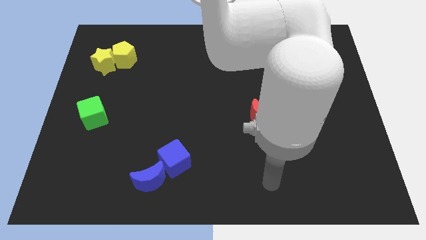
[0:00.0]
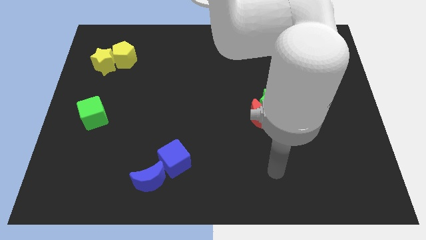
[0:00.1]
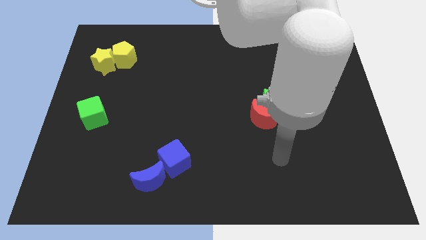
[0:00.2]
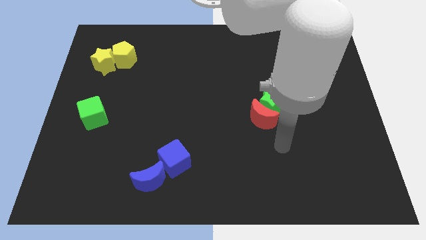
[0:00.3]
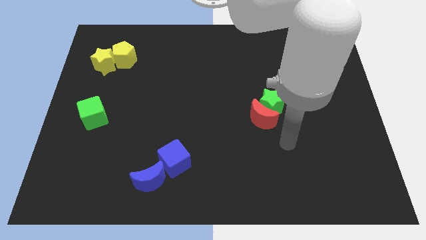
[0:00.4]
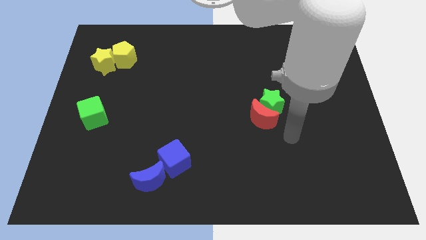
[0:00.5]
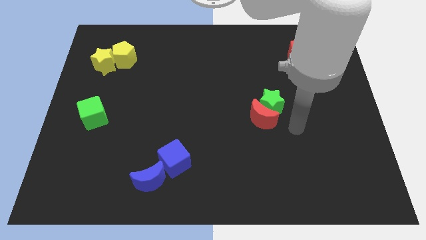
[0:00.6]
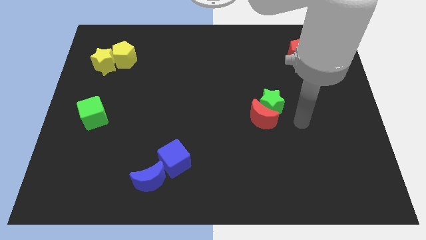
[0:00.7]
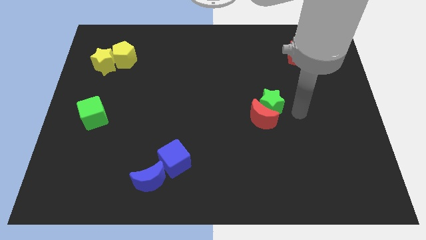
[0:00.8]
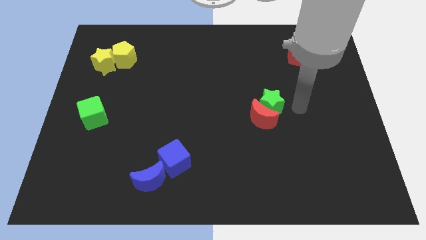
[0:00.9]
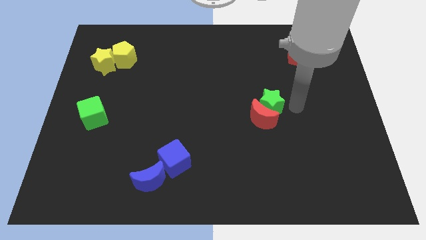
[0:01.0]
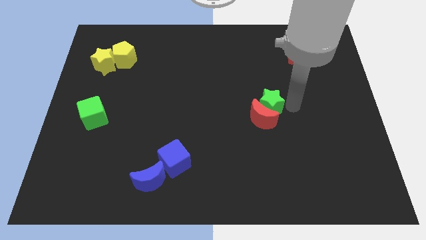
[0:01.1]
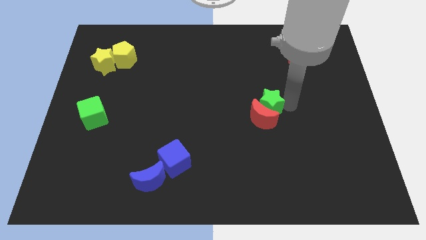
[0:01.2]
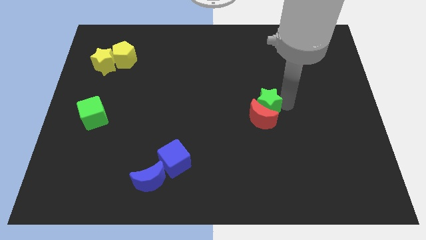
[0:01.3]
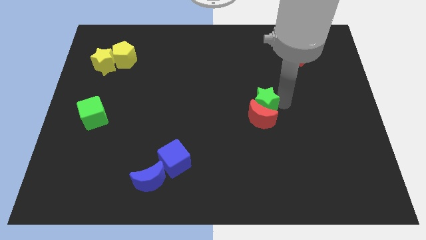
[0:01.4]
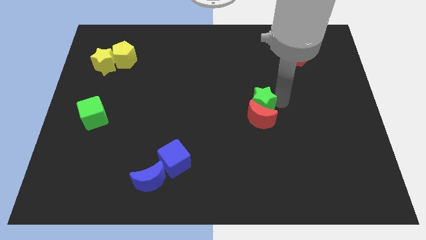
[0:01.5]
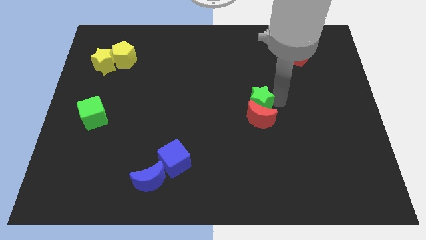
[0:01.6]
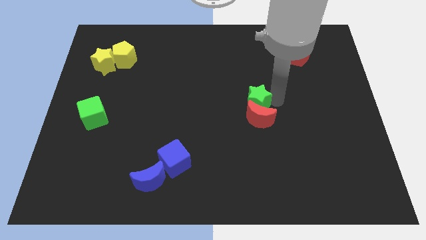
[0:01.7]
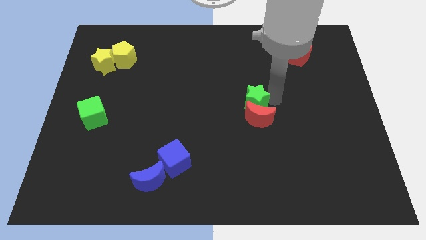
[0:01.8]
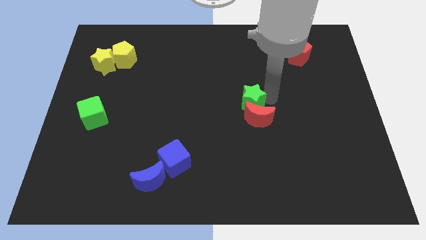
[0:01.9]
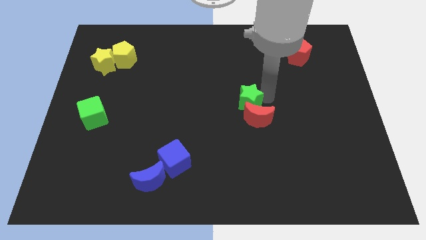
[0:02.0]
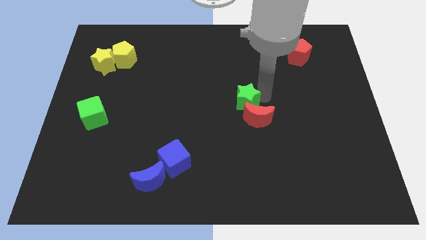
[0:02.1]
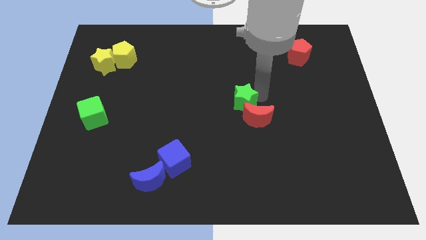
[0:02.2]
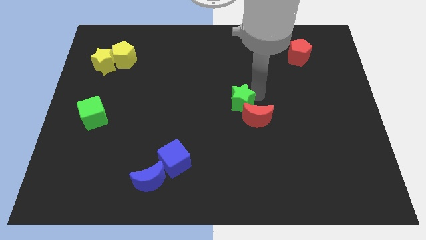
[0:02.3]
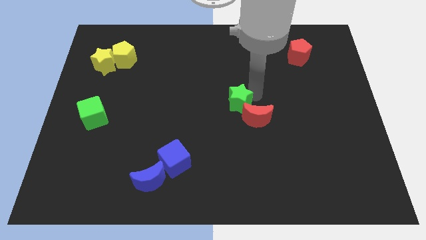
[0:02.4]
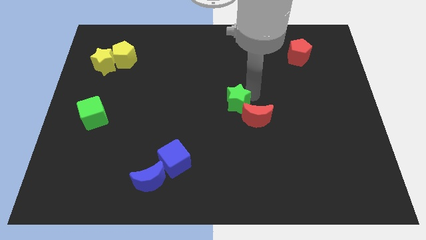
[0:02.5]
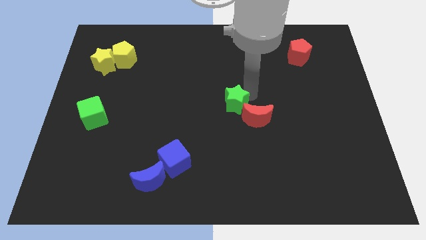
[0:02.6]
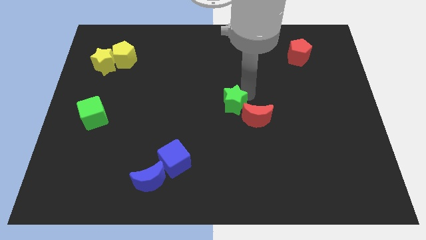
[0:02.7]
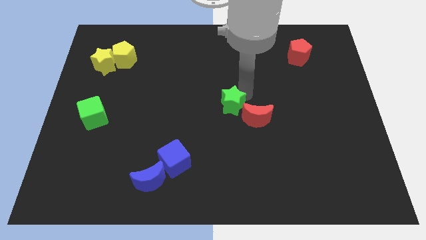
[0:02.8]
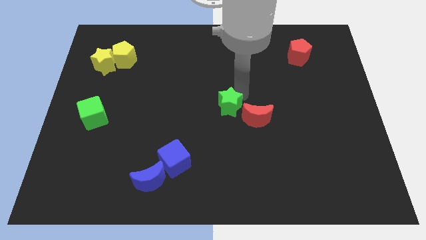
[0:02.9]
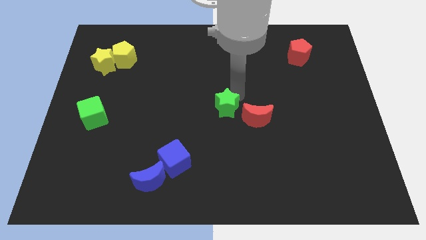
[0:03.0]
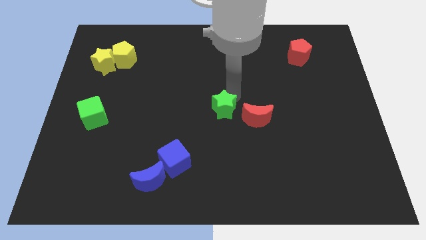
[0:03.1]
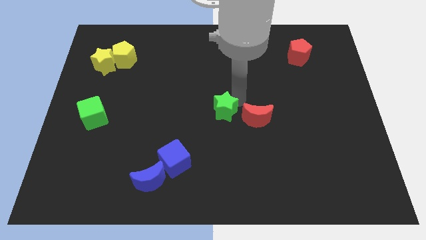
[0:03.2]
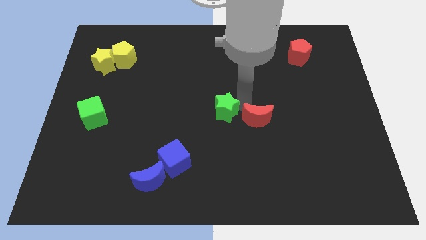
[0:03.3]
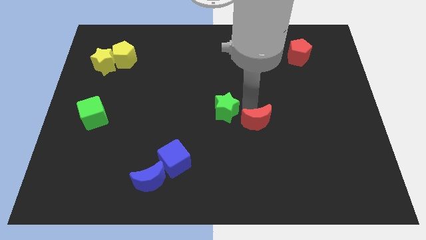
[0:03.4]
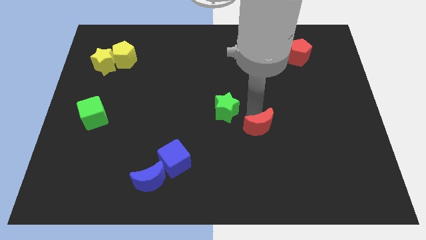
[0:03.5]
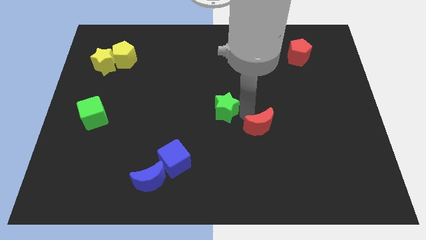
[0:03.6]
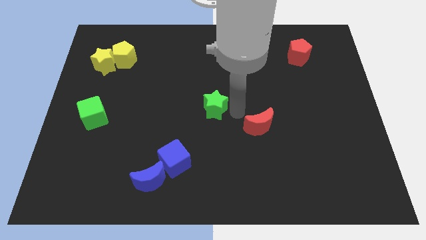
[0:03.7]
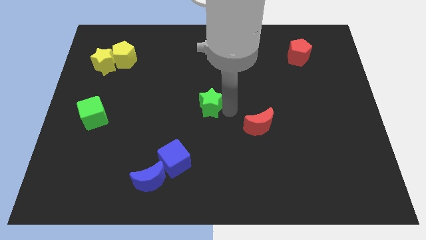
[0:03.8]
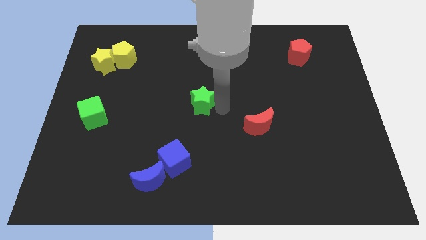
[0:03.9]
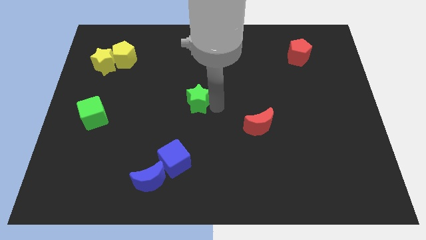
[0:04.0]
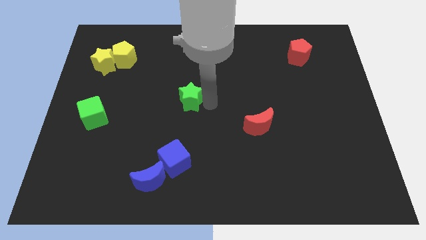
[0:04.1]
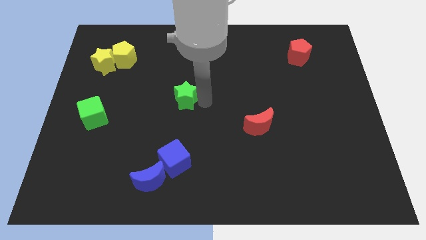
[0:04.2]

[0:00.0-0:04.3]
move the green star to the left

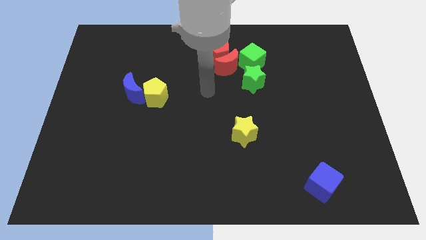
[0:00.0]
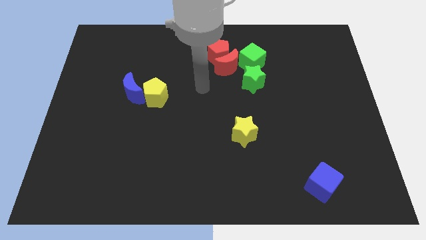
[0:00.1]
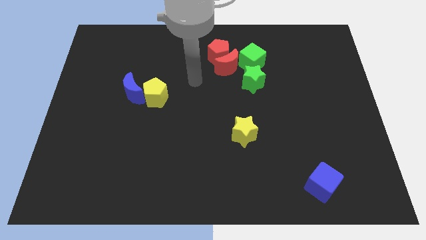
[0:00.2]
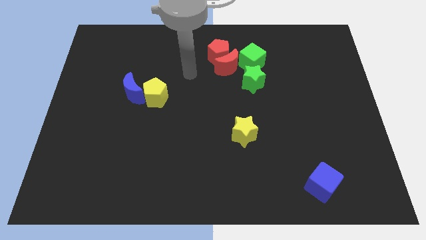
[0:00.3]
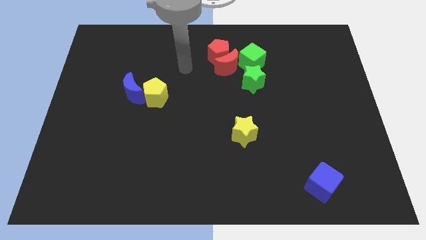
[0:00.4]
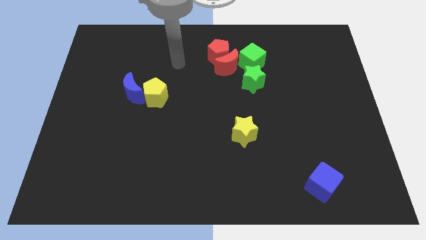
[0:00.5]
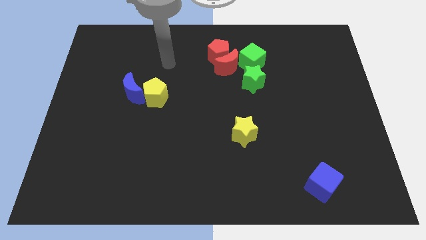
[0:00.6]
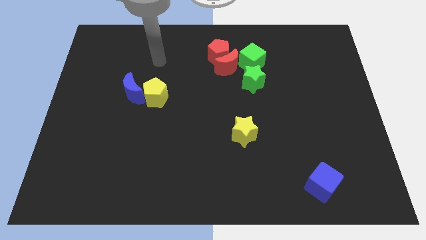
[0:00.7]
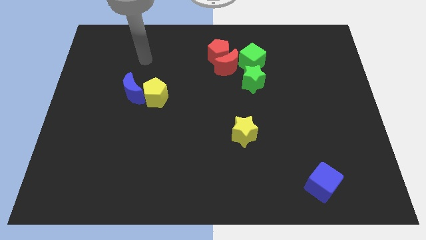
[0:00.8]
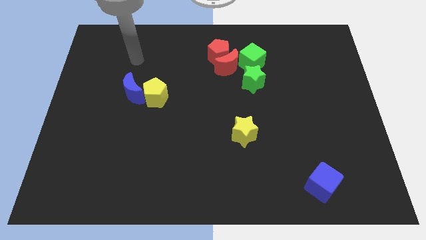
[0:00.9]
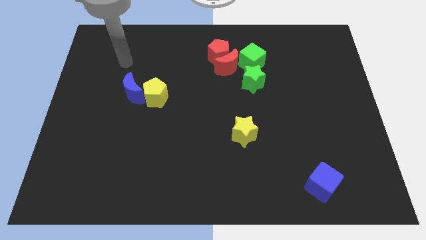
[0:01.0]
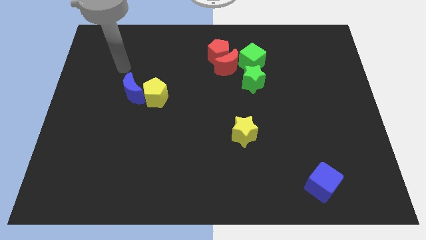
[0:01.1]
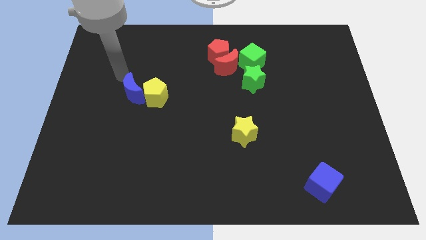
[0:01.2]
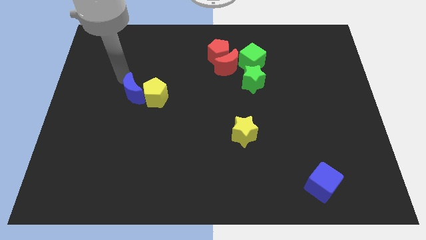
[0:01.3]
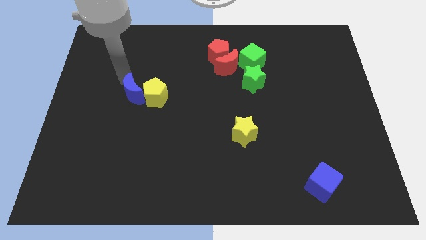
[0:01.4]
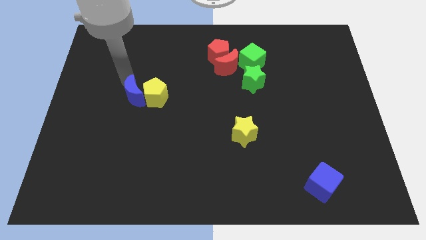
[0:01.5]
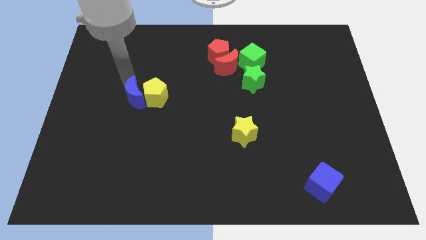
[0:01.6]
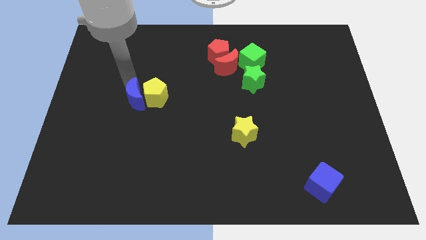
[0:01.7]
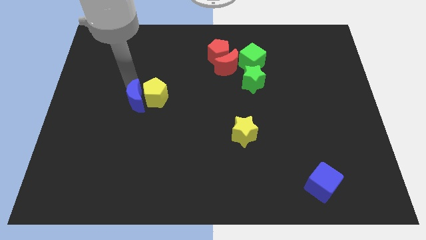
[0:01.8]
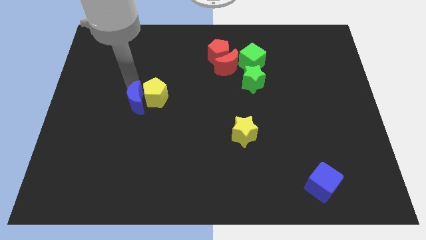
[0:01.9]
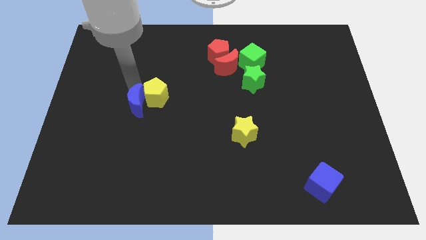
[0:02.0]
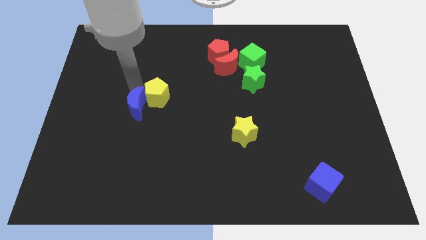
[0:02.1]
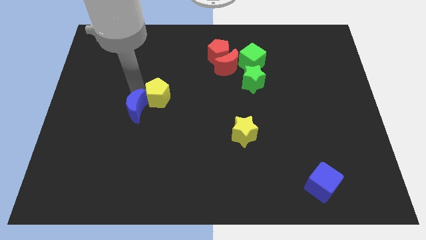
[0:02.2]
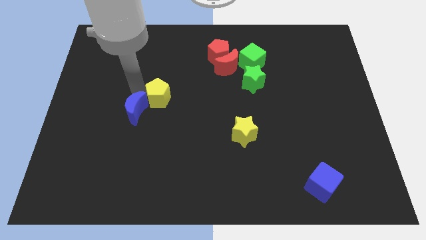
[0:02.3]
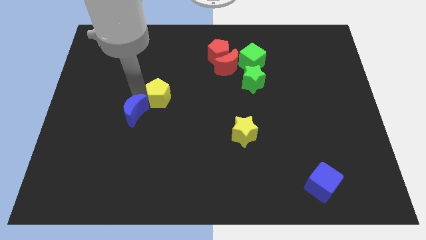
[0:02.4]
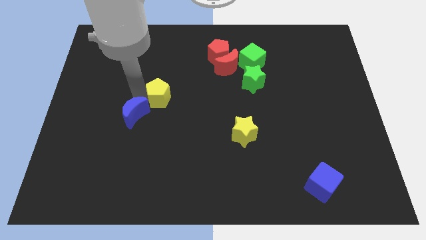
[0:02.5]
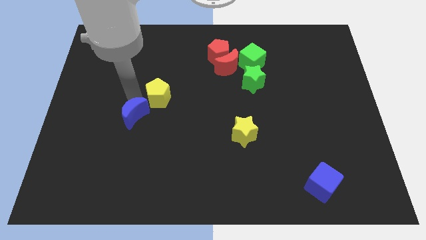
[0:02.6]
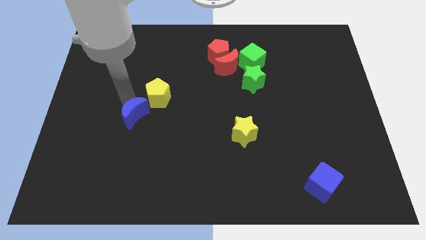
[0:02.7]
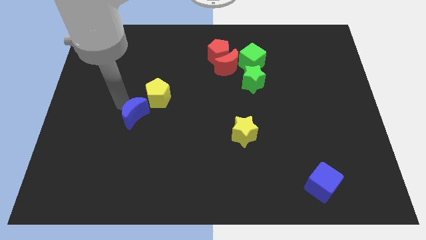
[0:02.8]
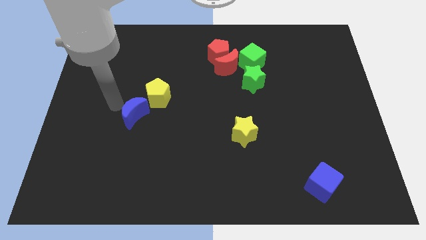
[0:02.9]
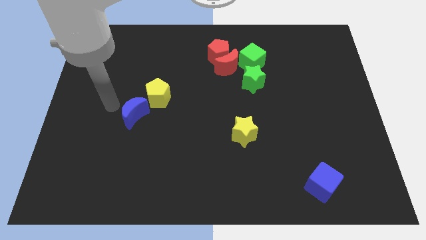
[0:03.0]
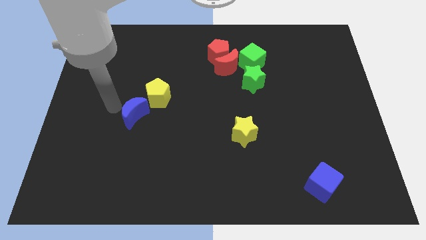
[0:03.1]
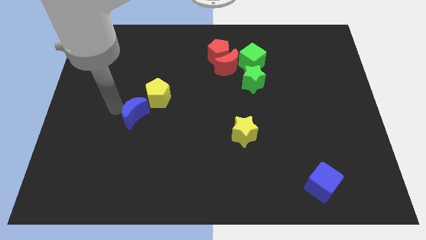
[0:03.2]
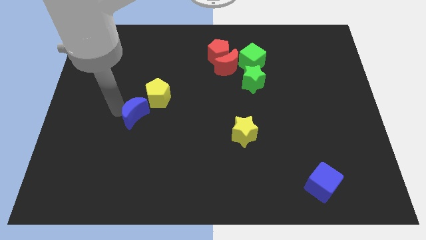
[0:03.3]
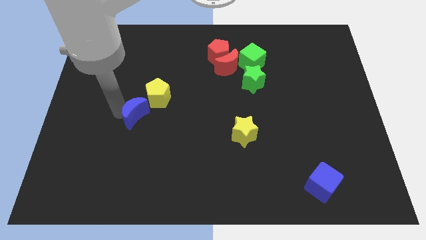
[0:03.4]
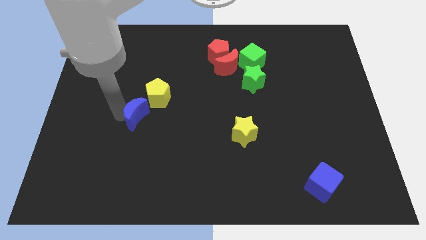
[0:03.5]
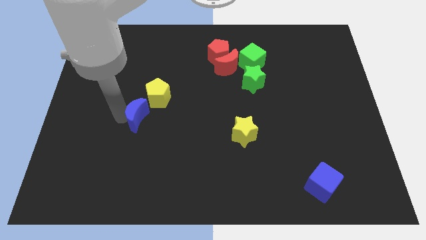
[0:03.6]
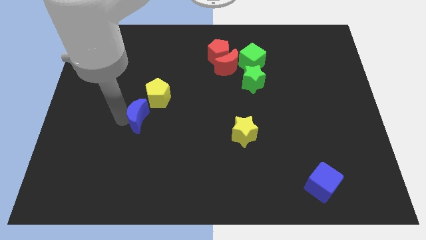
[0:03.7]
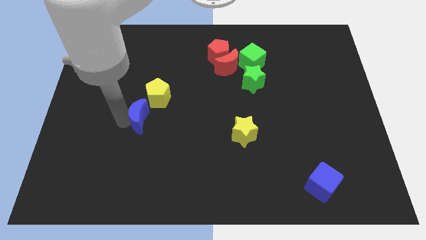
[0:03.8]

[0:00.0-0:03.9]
move the blue moon downwards and right a little
